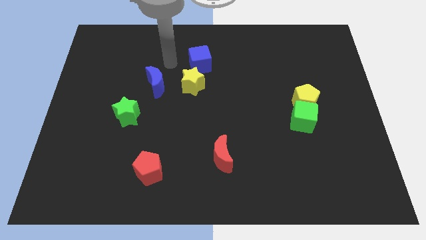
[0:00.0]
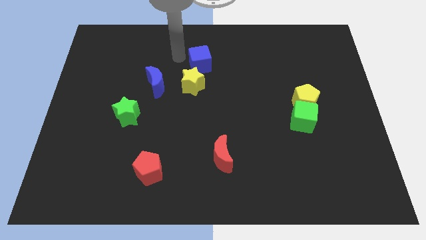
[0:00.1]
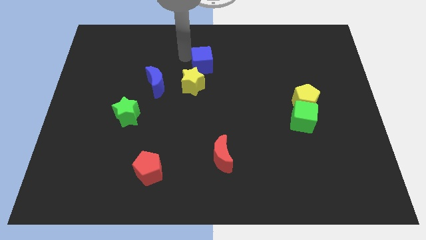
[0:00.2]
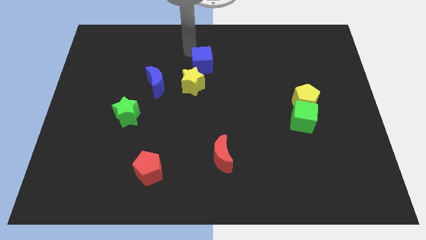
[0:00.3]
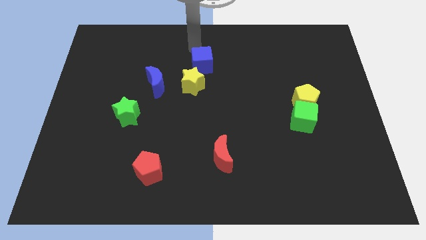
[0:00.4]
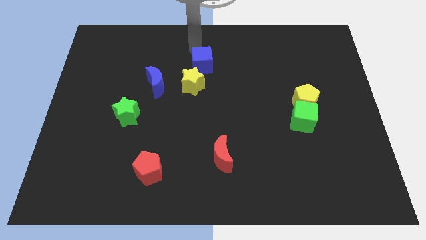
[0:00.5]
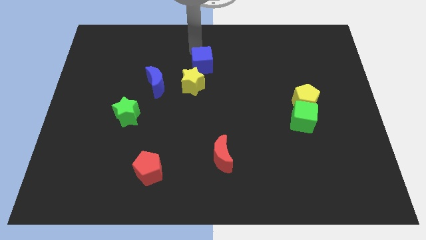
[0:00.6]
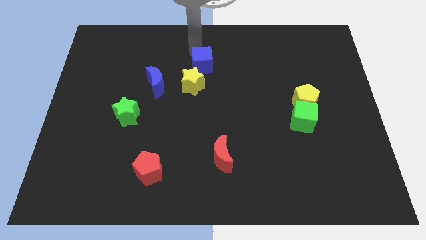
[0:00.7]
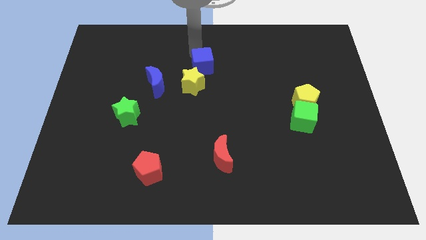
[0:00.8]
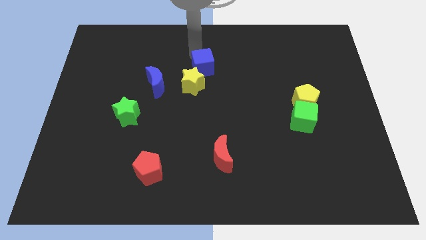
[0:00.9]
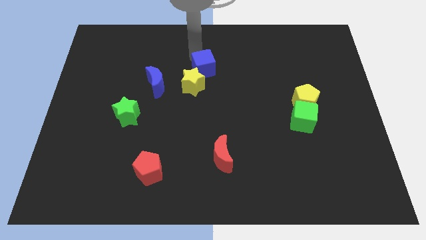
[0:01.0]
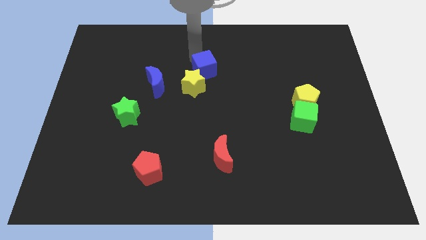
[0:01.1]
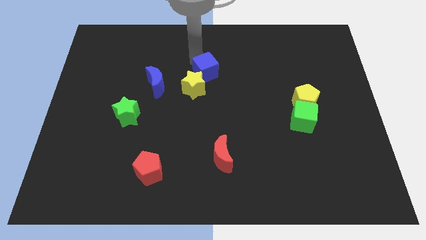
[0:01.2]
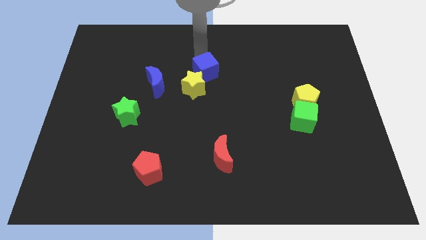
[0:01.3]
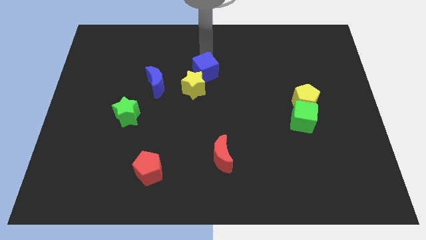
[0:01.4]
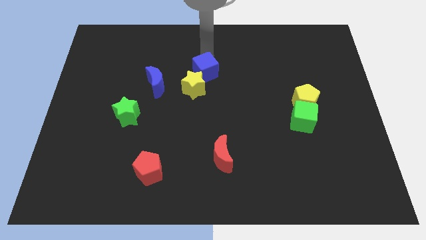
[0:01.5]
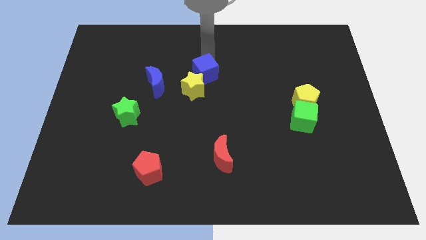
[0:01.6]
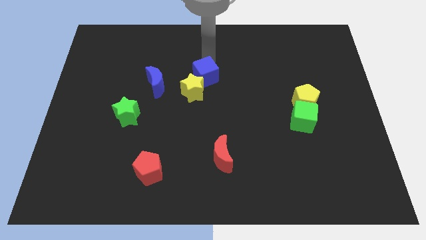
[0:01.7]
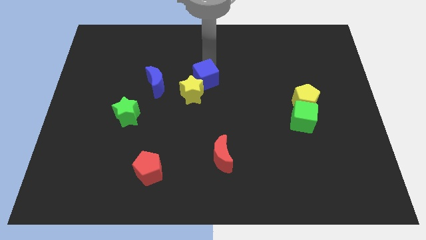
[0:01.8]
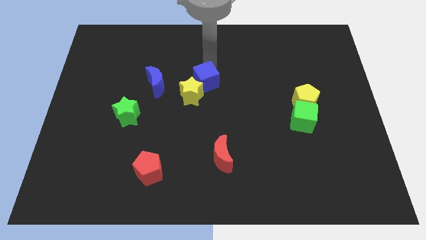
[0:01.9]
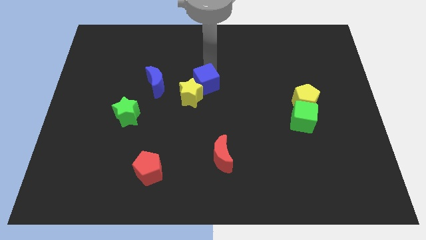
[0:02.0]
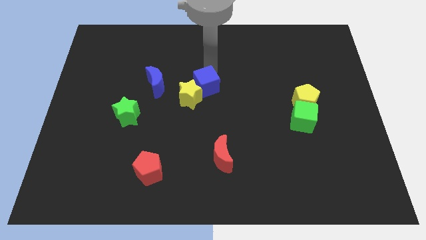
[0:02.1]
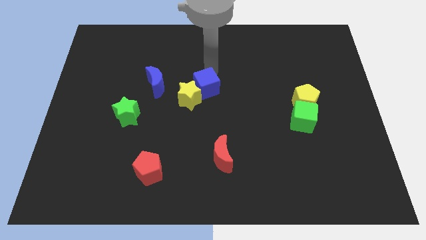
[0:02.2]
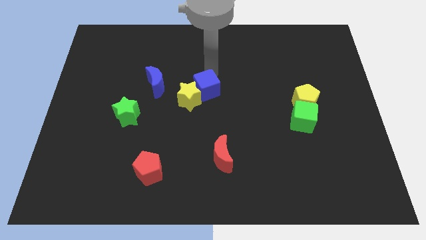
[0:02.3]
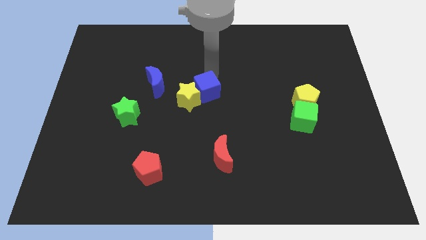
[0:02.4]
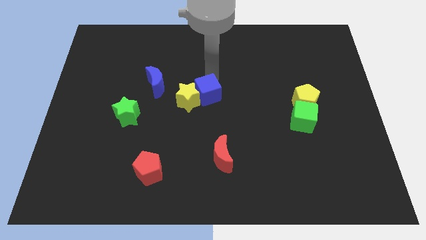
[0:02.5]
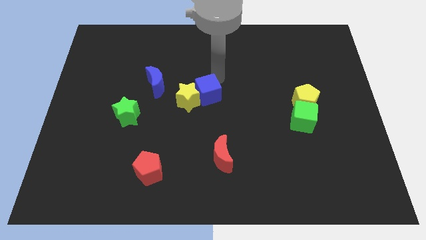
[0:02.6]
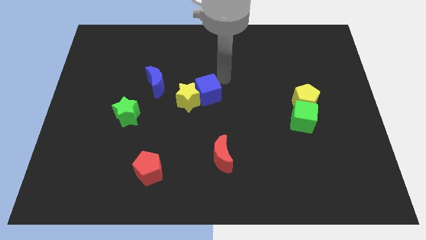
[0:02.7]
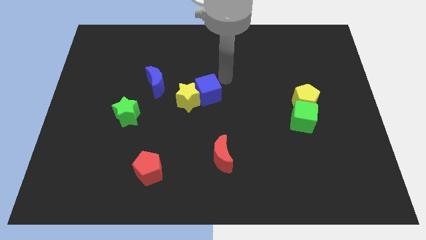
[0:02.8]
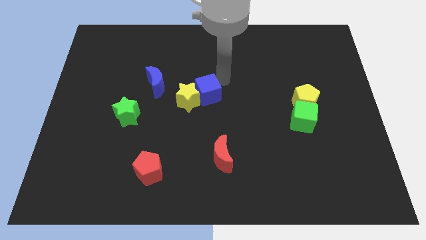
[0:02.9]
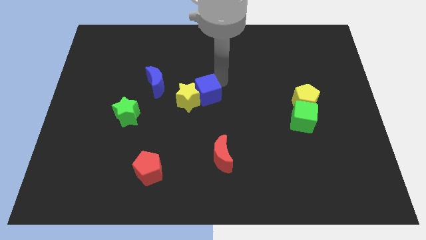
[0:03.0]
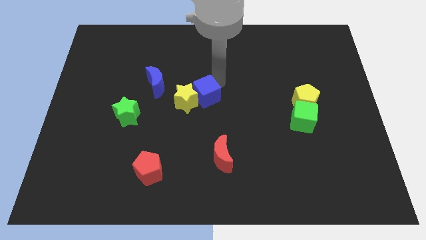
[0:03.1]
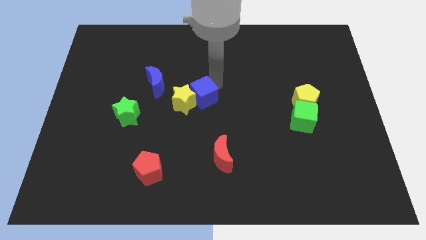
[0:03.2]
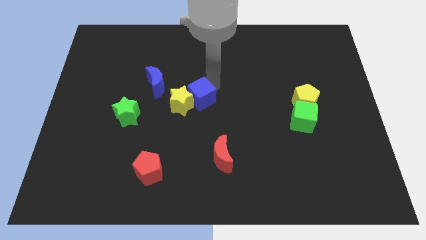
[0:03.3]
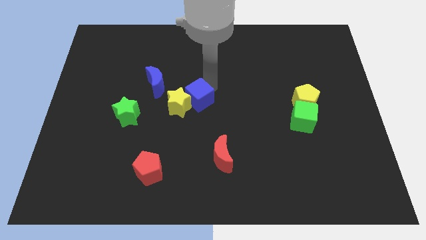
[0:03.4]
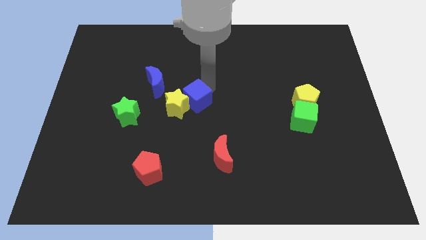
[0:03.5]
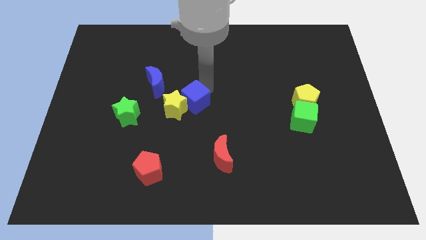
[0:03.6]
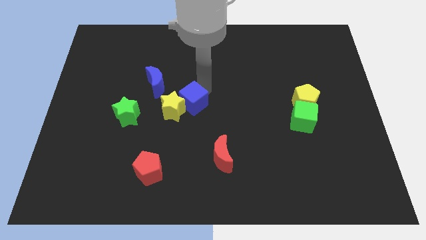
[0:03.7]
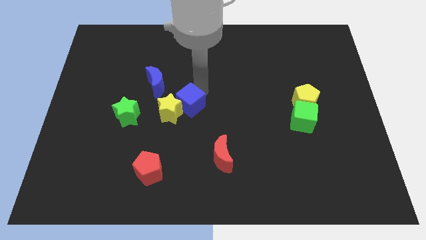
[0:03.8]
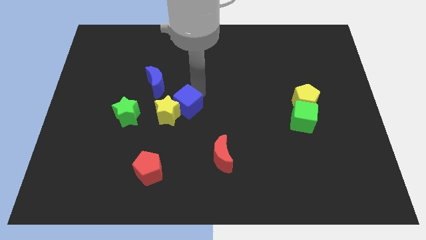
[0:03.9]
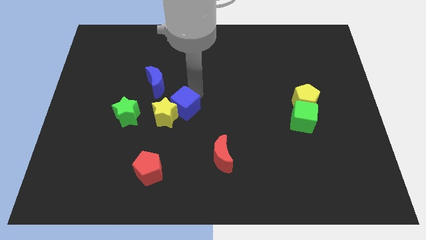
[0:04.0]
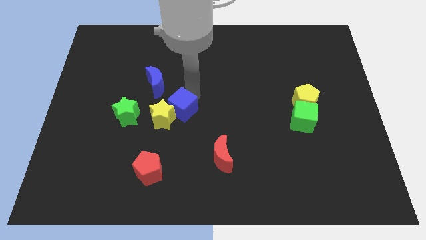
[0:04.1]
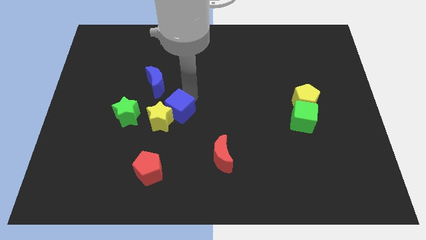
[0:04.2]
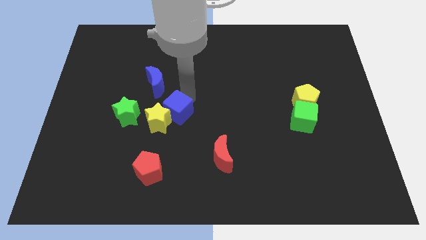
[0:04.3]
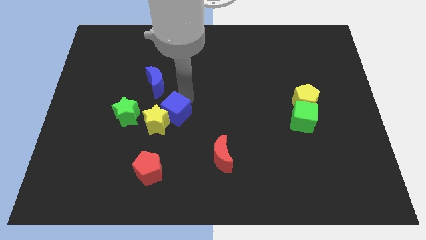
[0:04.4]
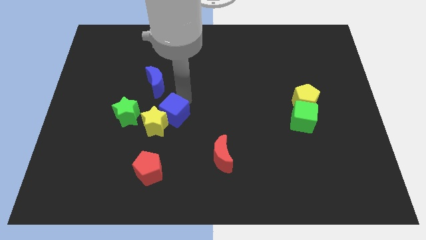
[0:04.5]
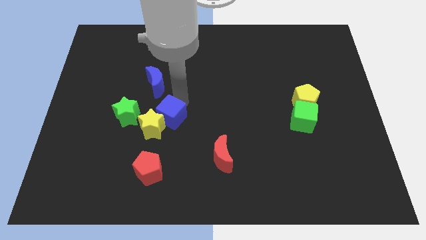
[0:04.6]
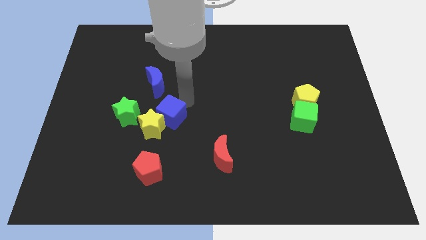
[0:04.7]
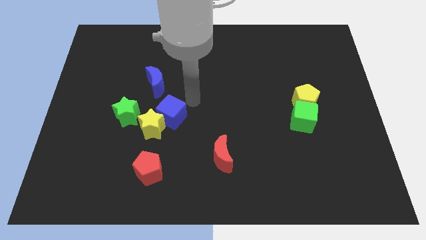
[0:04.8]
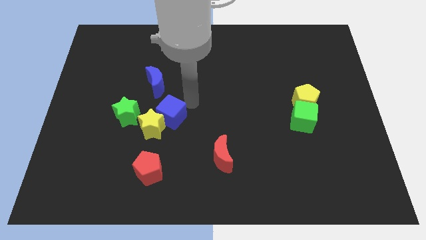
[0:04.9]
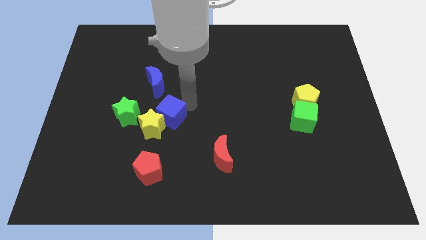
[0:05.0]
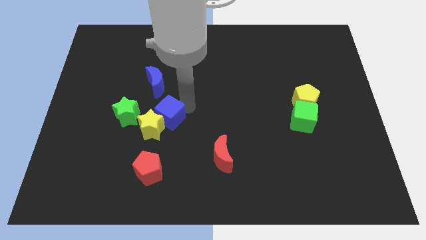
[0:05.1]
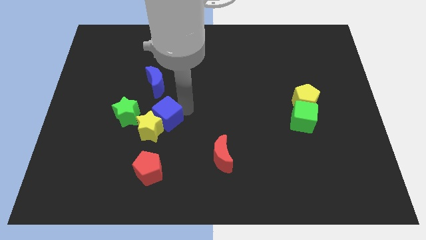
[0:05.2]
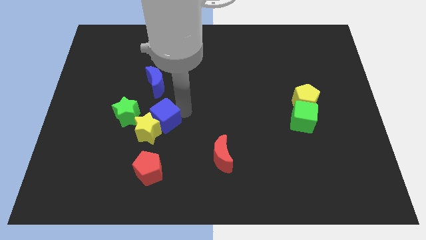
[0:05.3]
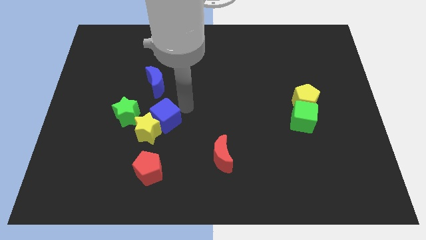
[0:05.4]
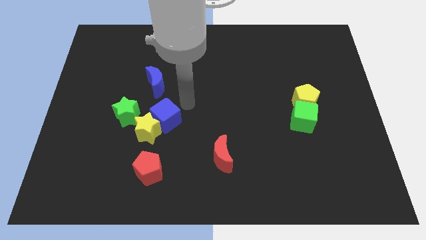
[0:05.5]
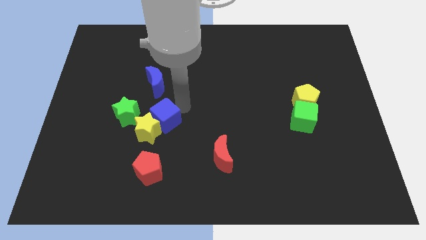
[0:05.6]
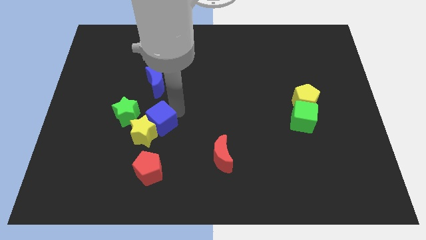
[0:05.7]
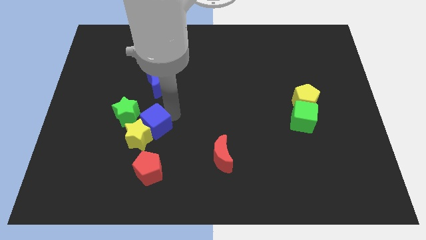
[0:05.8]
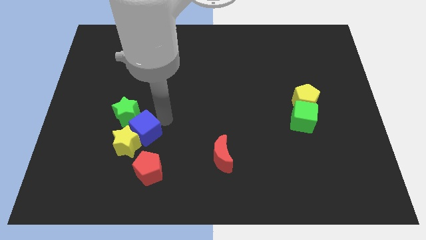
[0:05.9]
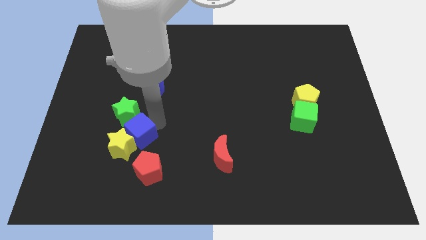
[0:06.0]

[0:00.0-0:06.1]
push the blue cube diagonally up and to the left of the red pentagon

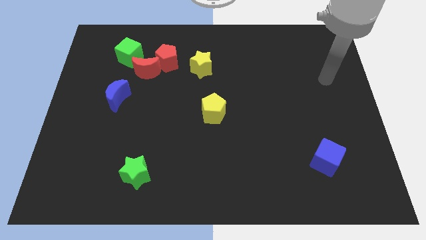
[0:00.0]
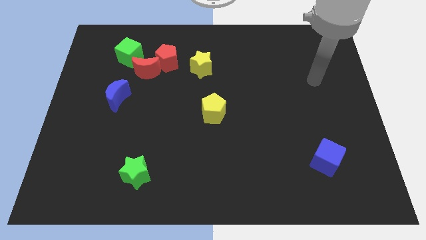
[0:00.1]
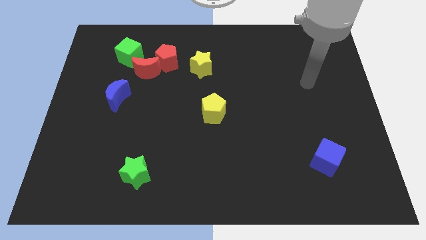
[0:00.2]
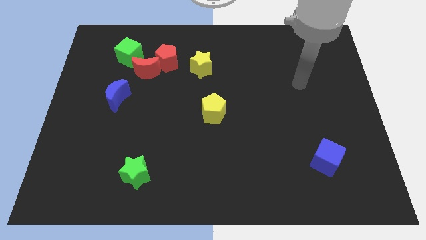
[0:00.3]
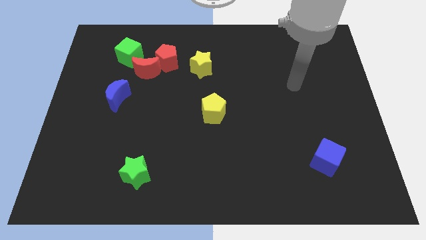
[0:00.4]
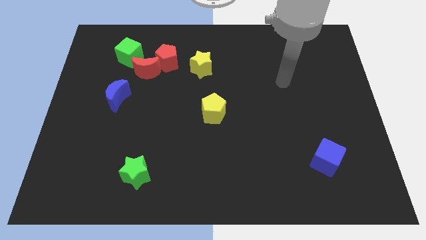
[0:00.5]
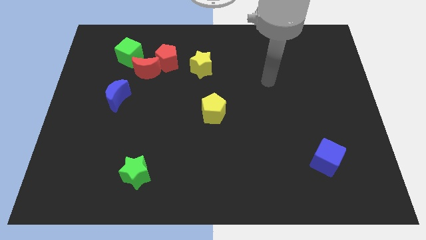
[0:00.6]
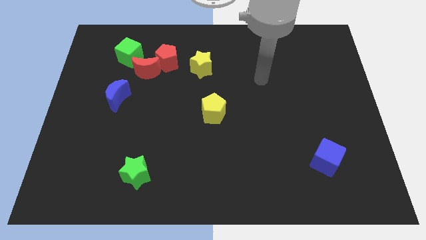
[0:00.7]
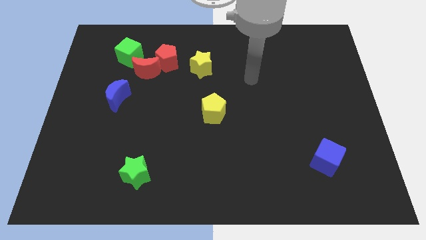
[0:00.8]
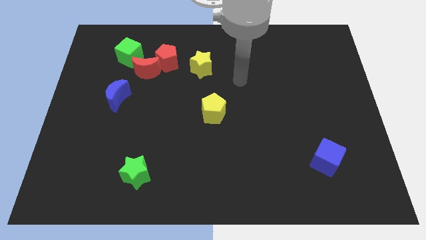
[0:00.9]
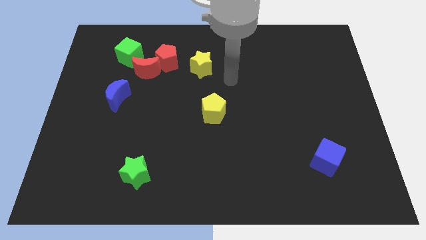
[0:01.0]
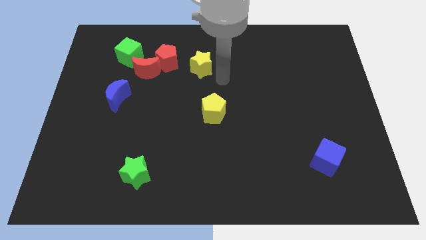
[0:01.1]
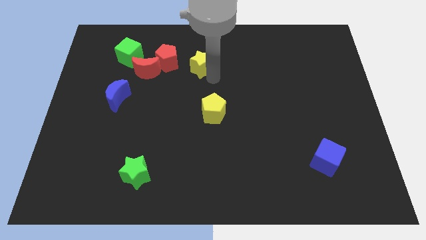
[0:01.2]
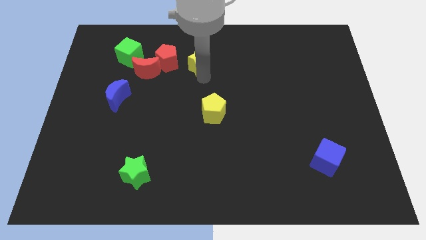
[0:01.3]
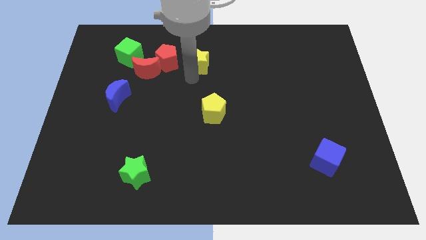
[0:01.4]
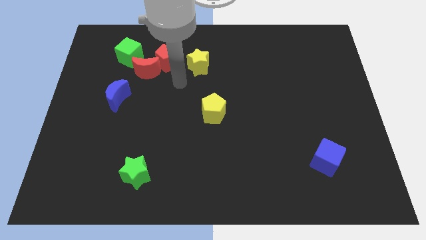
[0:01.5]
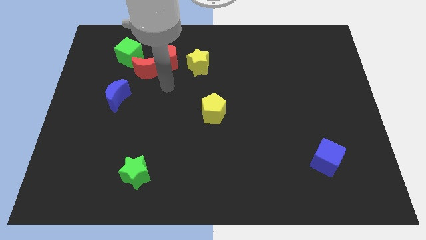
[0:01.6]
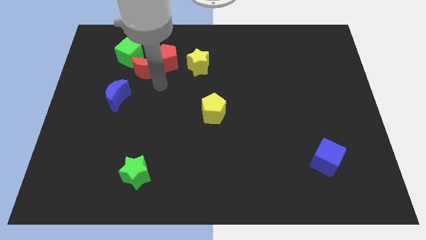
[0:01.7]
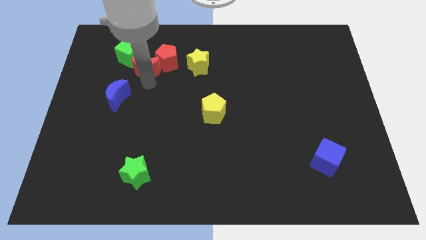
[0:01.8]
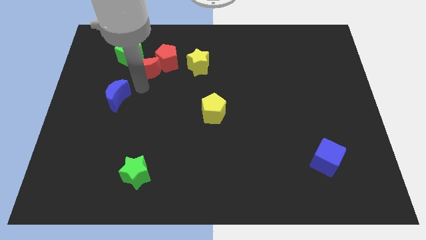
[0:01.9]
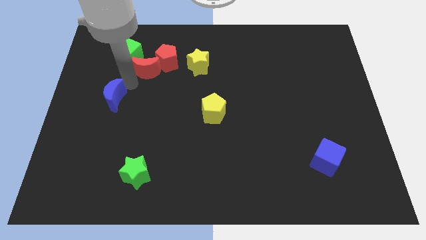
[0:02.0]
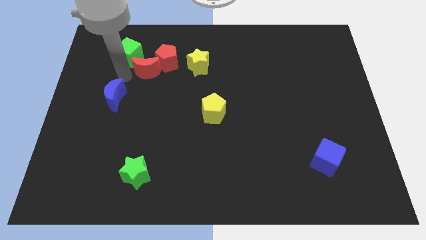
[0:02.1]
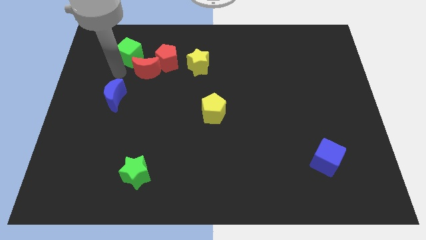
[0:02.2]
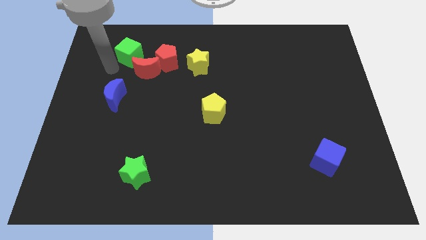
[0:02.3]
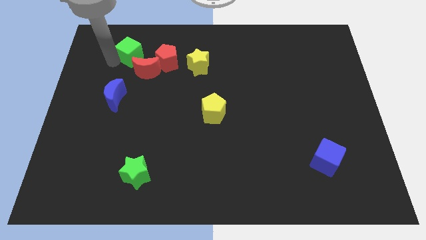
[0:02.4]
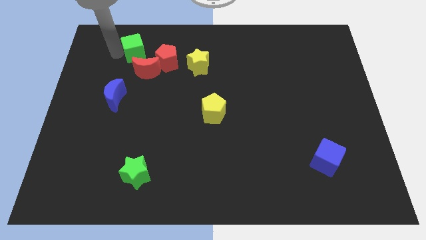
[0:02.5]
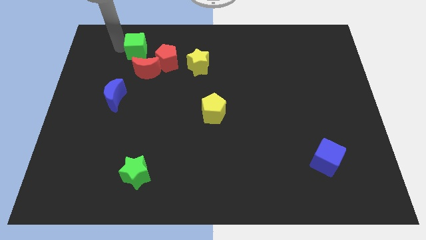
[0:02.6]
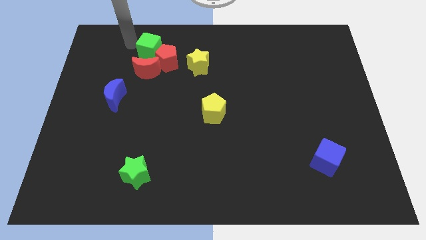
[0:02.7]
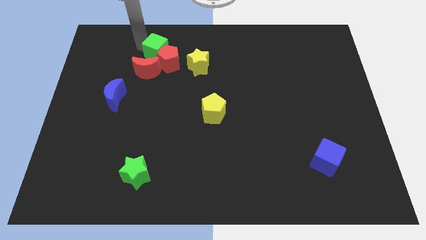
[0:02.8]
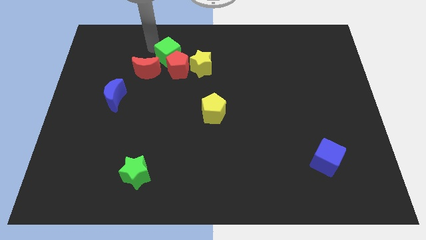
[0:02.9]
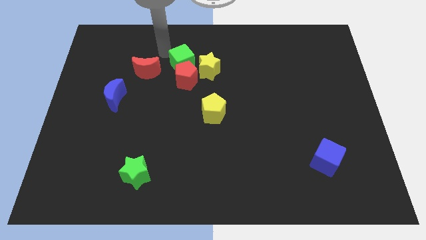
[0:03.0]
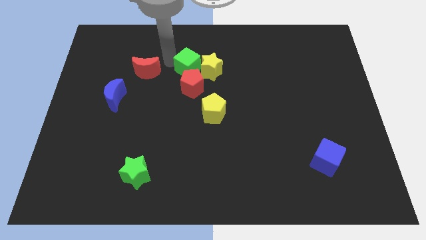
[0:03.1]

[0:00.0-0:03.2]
push the red pentagon to the bottom side of the yellow star
